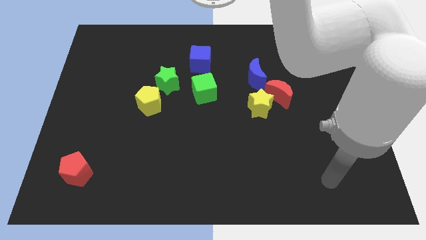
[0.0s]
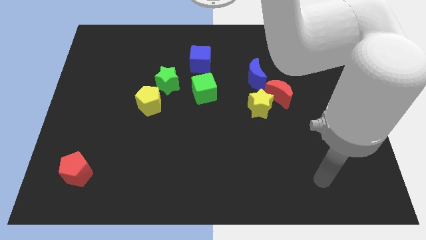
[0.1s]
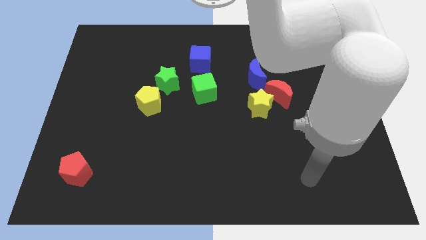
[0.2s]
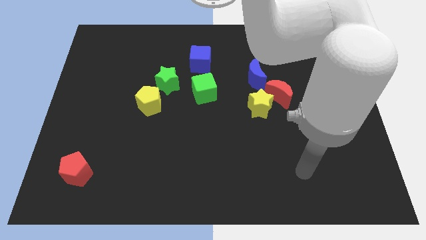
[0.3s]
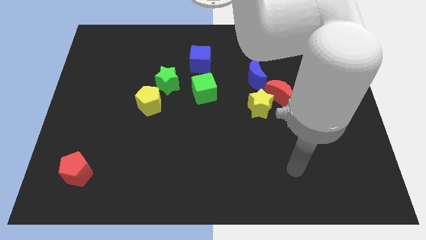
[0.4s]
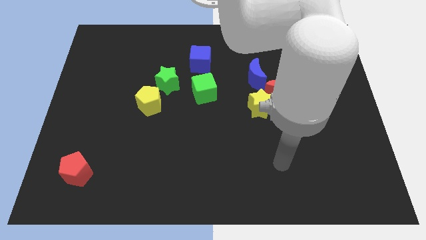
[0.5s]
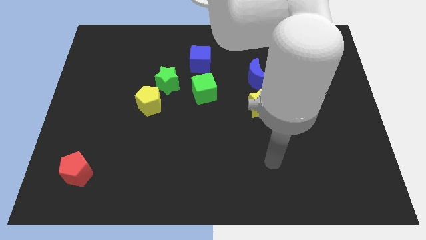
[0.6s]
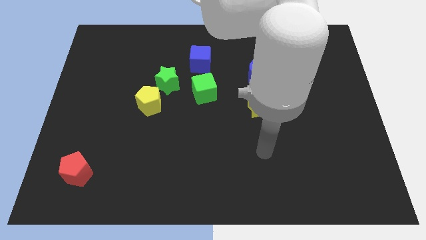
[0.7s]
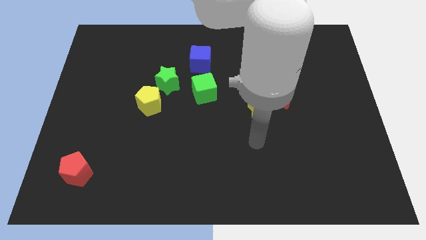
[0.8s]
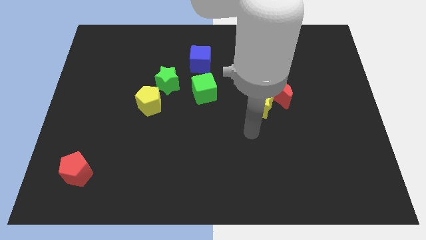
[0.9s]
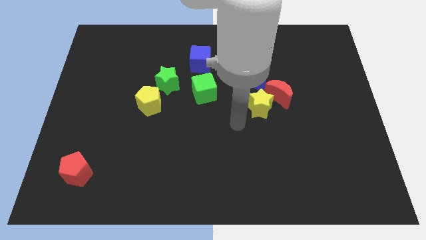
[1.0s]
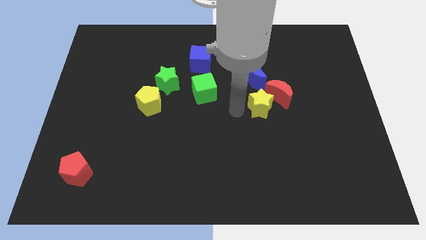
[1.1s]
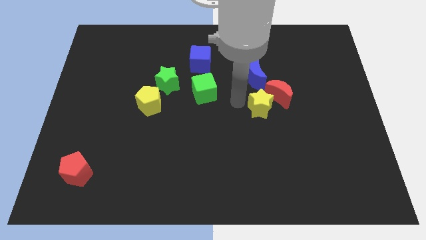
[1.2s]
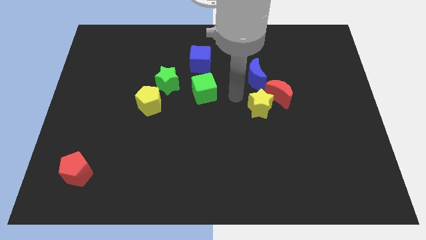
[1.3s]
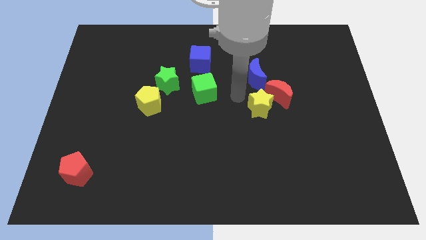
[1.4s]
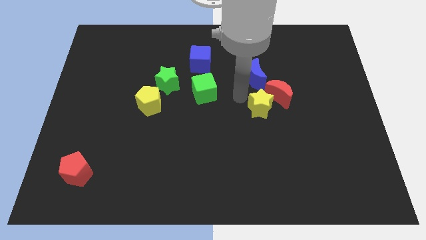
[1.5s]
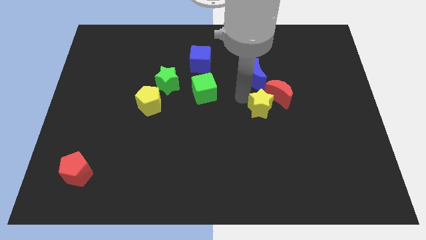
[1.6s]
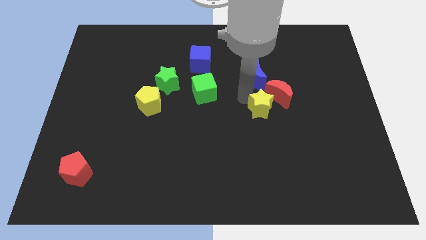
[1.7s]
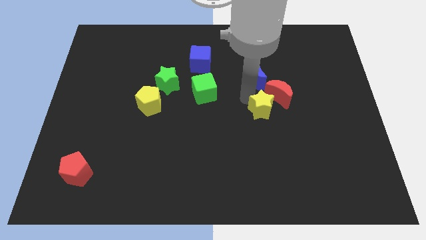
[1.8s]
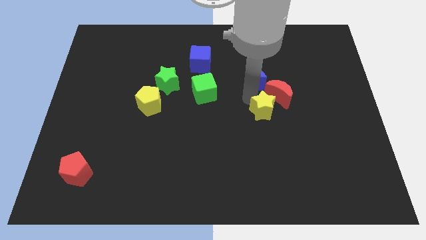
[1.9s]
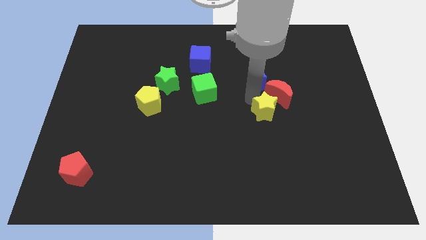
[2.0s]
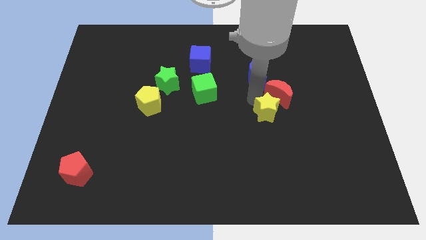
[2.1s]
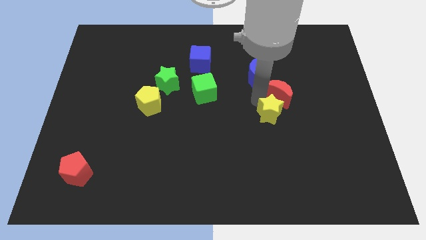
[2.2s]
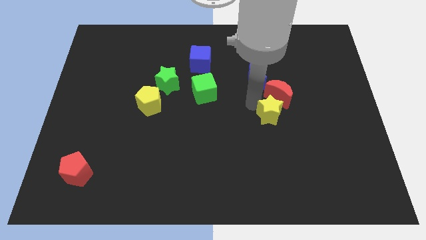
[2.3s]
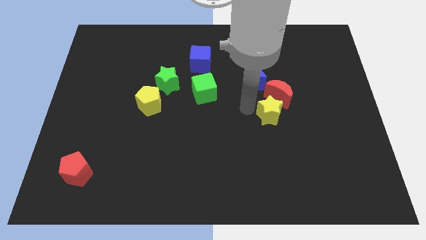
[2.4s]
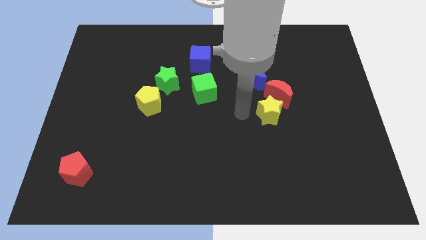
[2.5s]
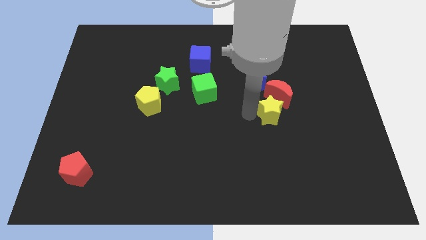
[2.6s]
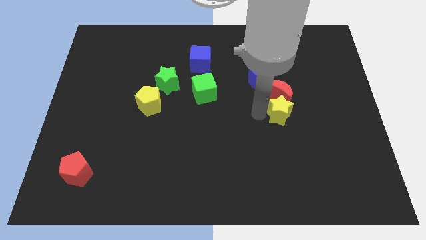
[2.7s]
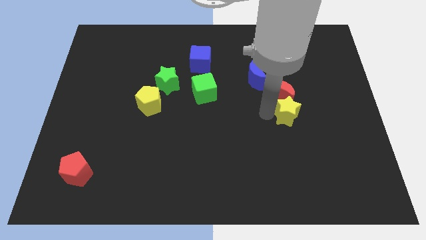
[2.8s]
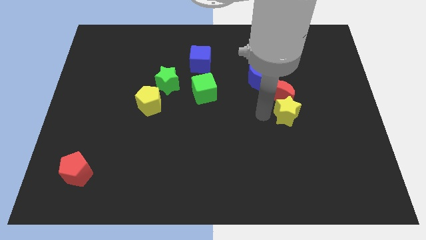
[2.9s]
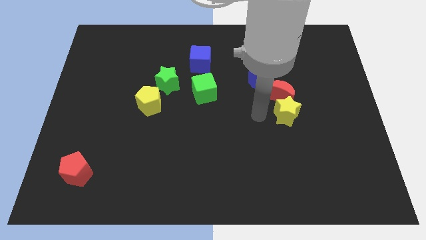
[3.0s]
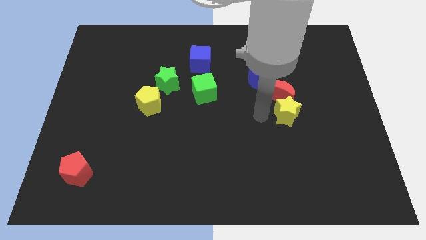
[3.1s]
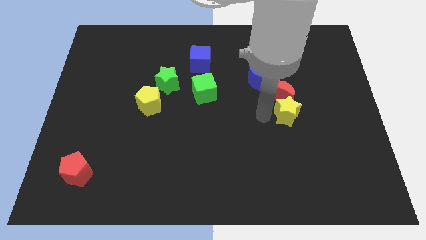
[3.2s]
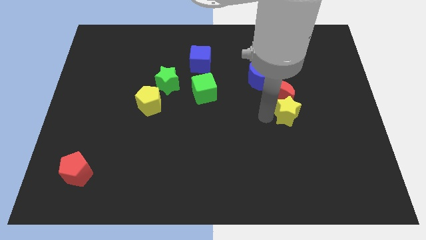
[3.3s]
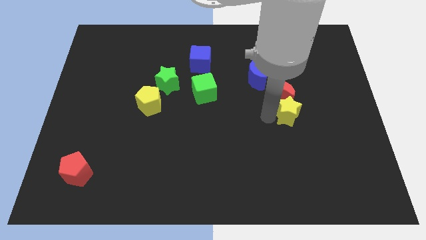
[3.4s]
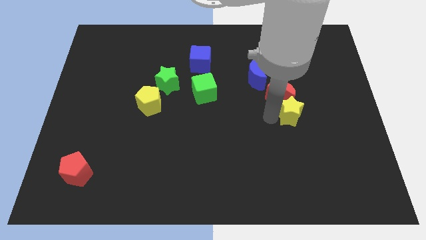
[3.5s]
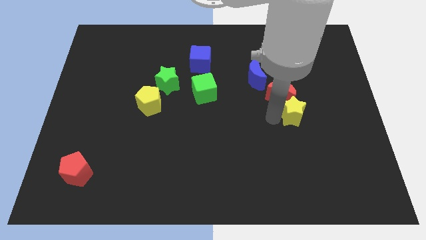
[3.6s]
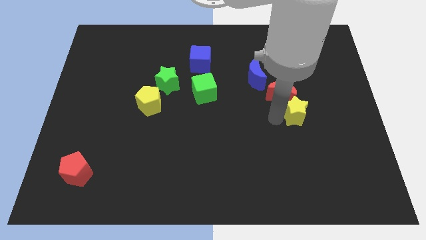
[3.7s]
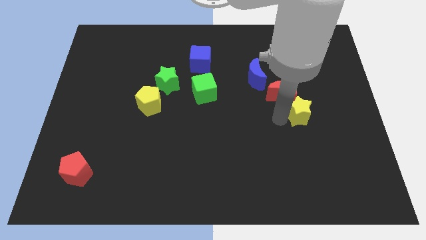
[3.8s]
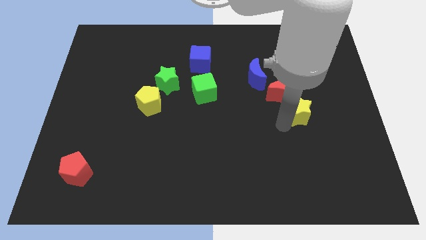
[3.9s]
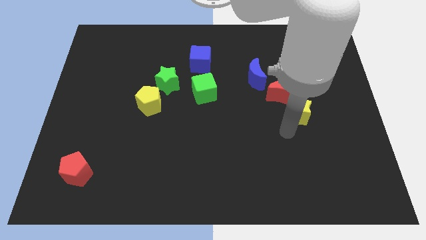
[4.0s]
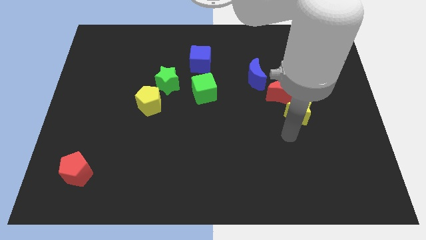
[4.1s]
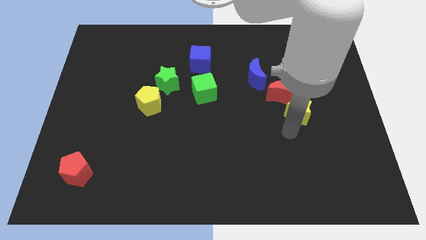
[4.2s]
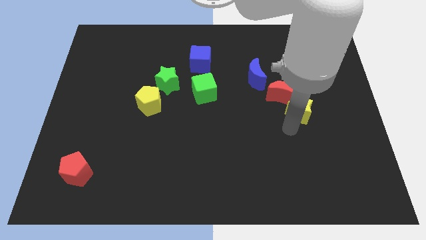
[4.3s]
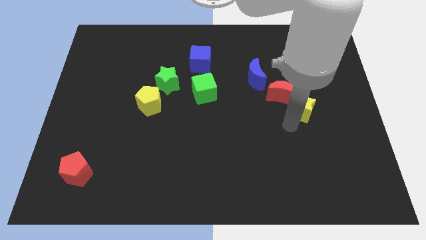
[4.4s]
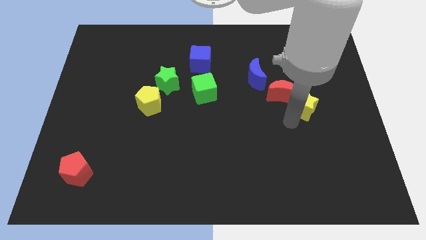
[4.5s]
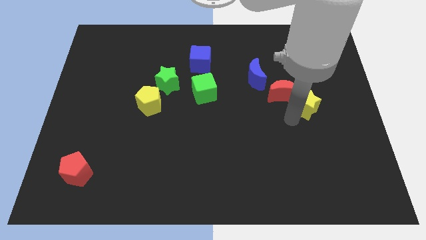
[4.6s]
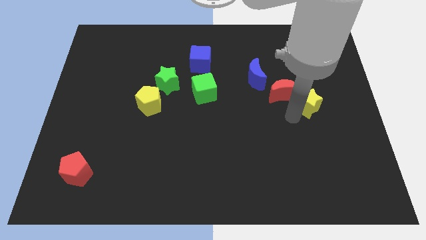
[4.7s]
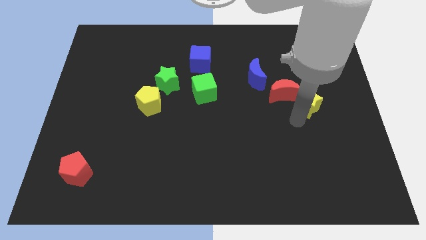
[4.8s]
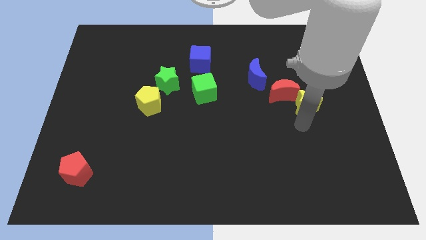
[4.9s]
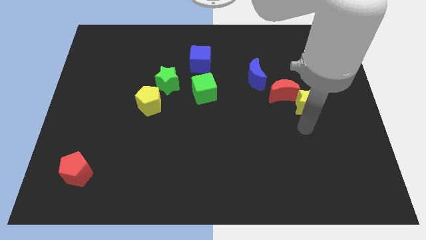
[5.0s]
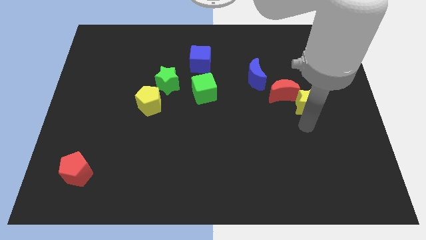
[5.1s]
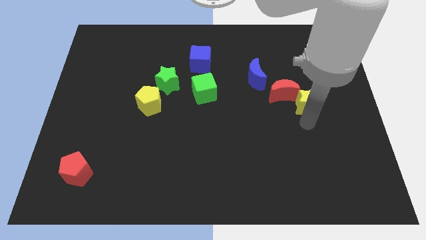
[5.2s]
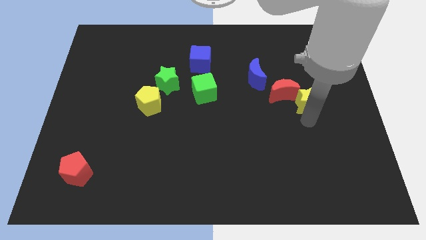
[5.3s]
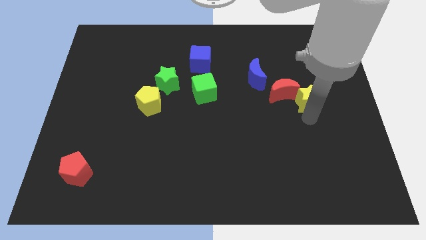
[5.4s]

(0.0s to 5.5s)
slide the yellow star upwards and to the right somewhat

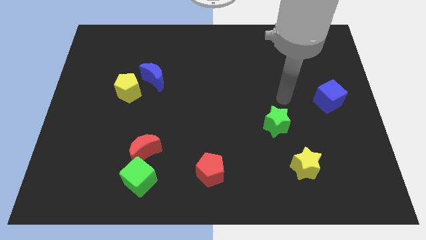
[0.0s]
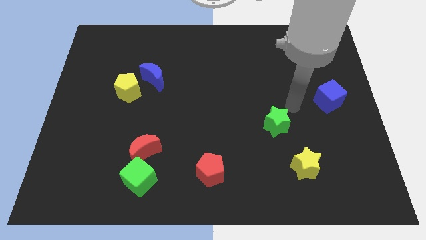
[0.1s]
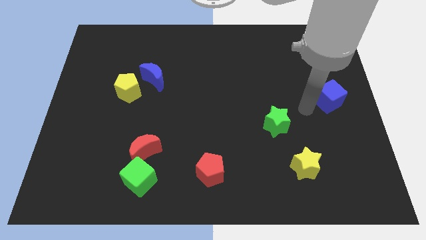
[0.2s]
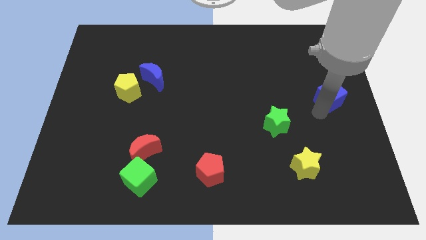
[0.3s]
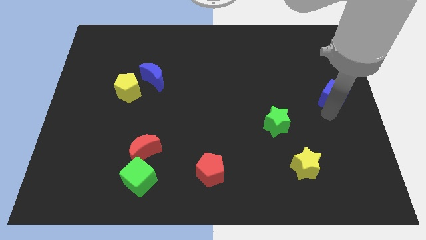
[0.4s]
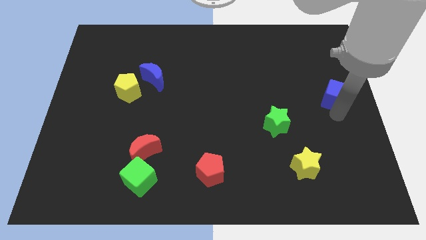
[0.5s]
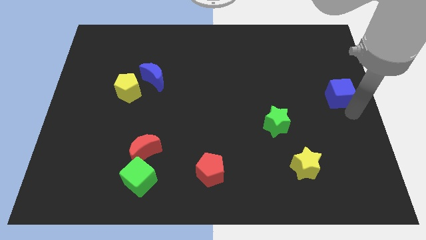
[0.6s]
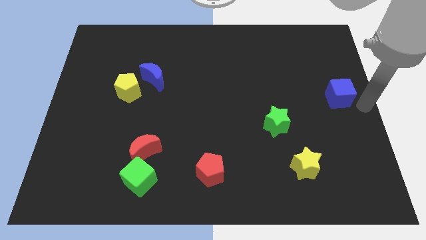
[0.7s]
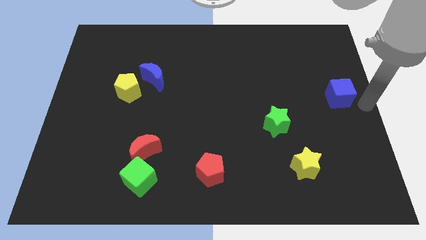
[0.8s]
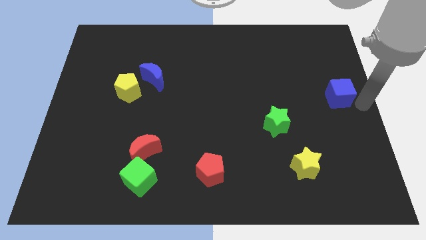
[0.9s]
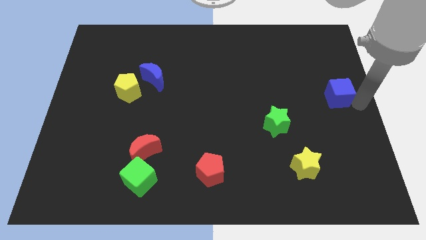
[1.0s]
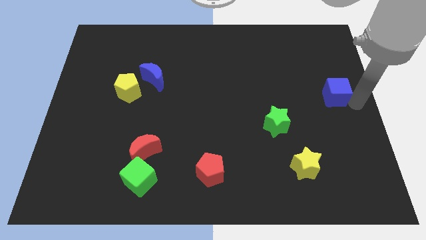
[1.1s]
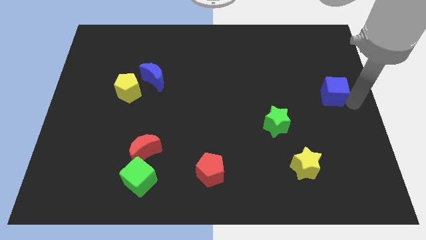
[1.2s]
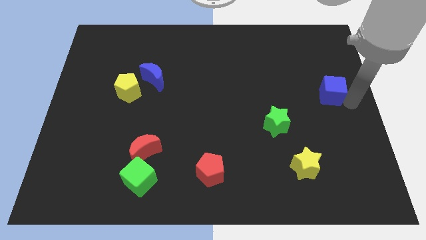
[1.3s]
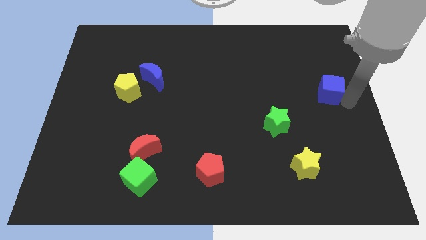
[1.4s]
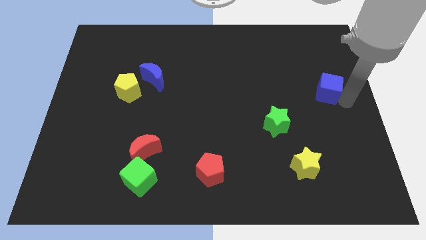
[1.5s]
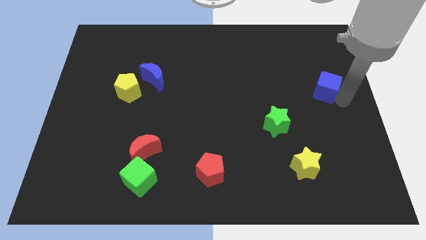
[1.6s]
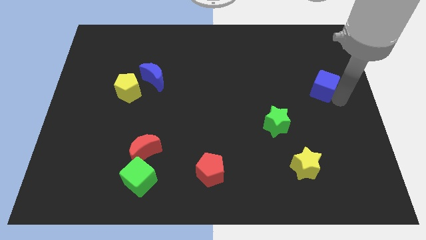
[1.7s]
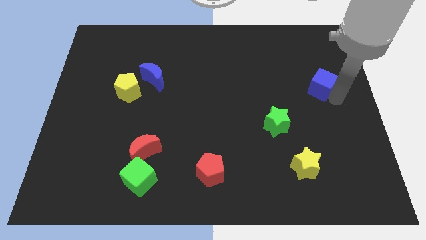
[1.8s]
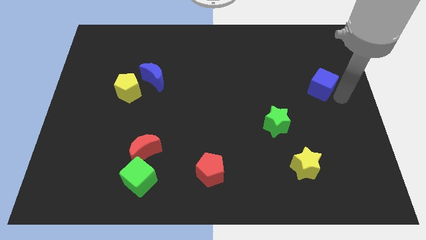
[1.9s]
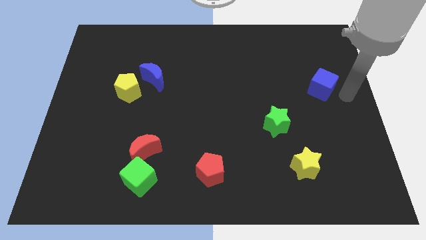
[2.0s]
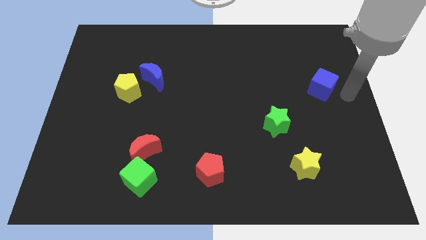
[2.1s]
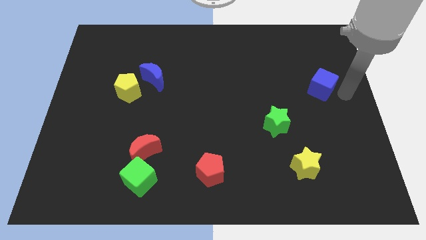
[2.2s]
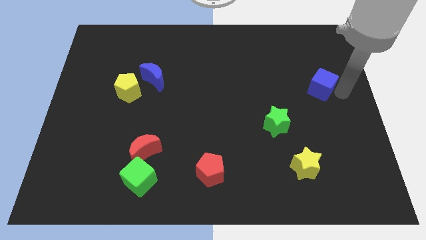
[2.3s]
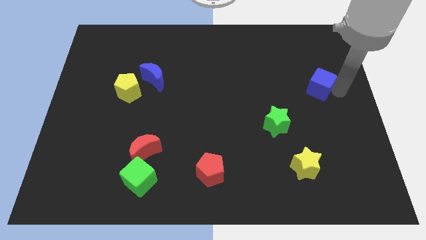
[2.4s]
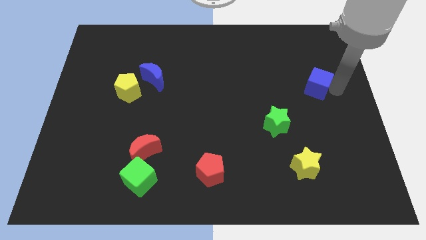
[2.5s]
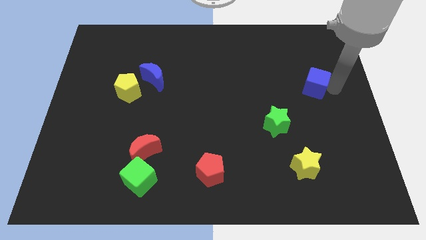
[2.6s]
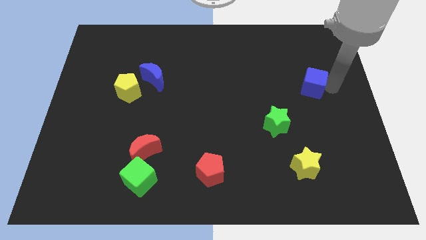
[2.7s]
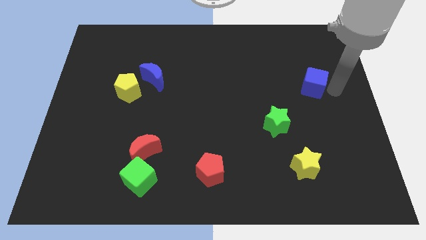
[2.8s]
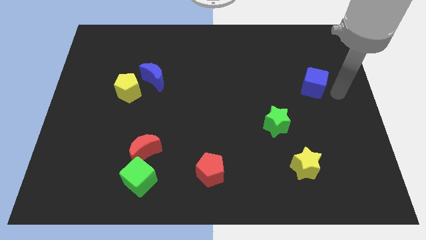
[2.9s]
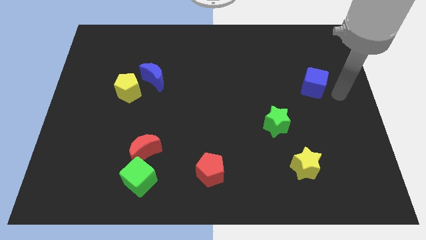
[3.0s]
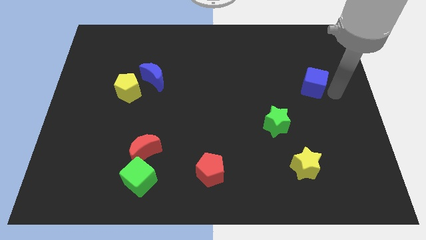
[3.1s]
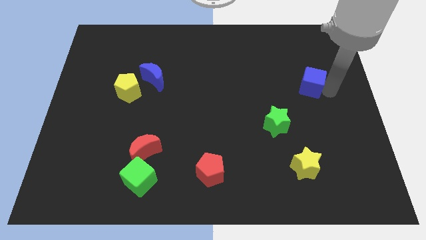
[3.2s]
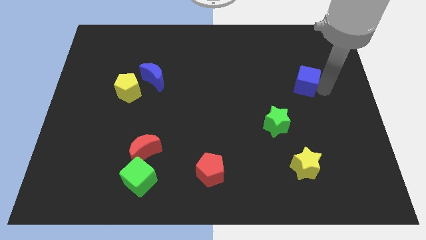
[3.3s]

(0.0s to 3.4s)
slightly push the blue cube up and left diagonally
